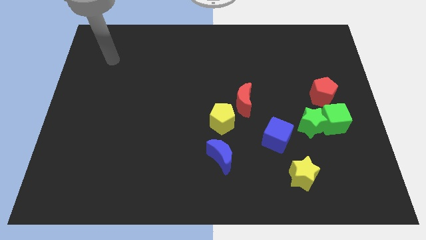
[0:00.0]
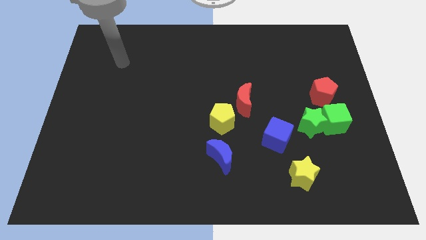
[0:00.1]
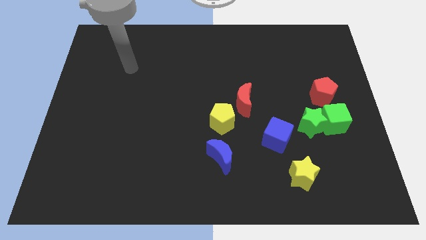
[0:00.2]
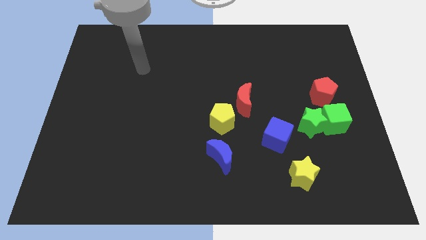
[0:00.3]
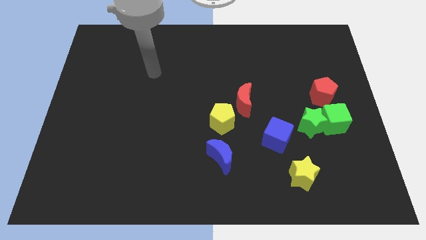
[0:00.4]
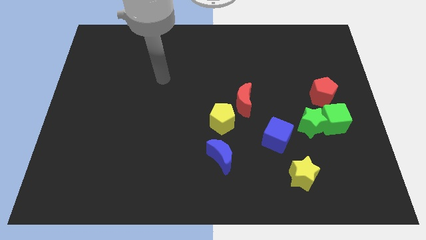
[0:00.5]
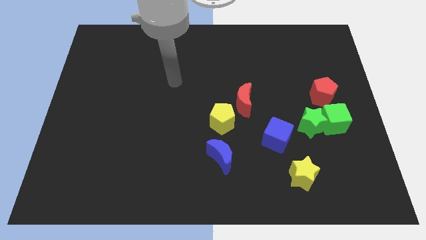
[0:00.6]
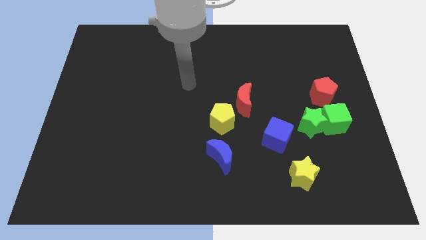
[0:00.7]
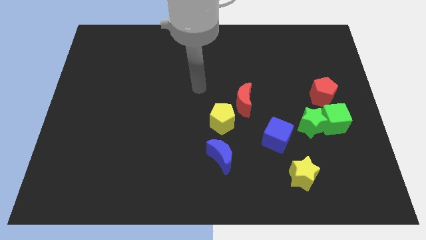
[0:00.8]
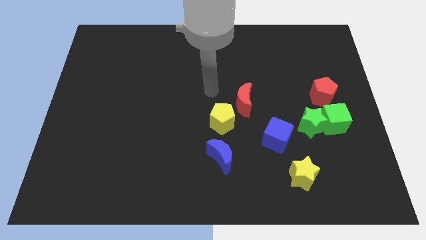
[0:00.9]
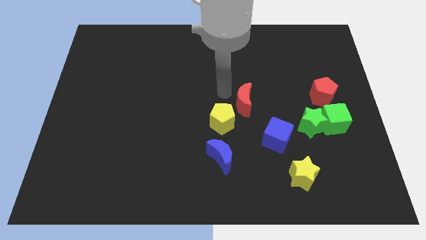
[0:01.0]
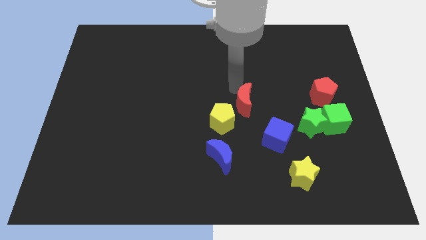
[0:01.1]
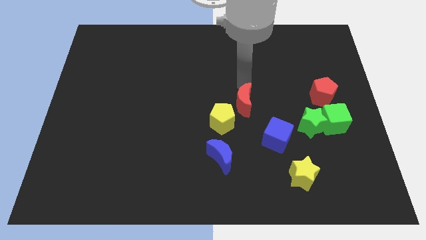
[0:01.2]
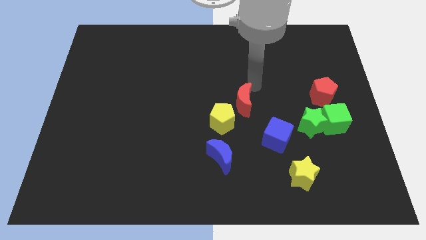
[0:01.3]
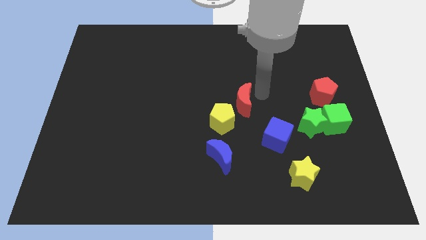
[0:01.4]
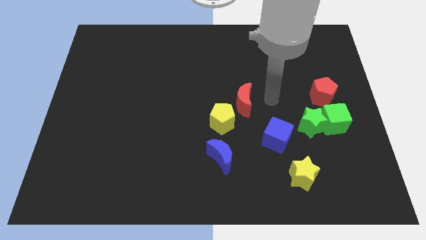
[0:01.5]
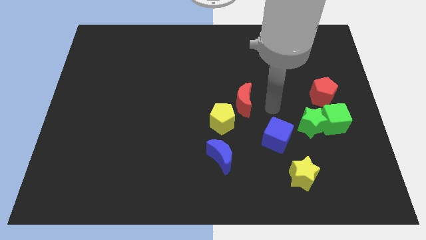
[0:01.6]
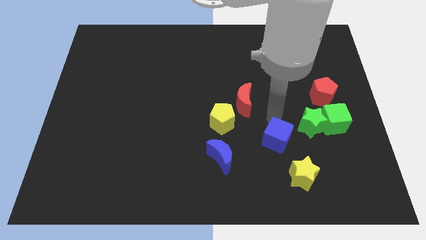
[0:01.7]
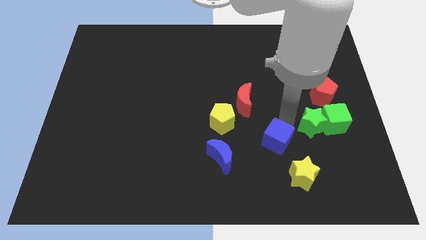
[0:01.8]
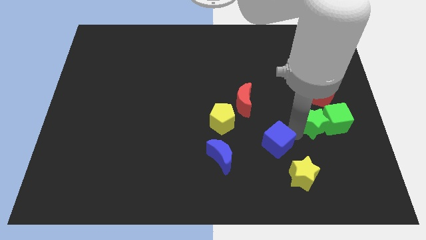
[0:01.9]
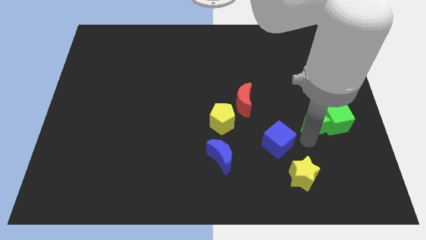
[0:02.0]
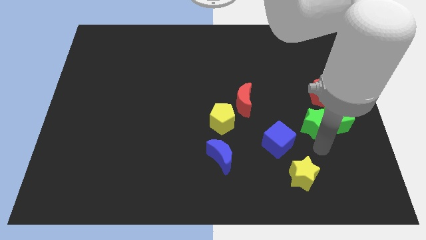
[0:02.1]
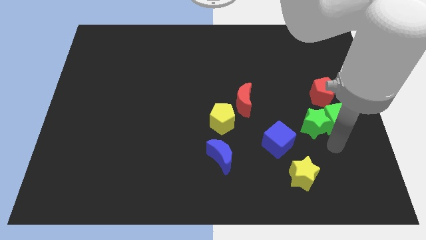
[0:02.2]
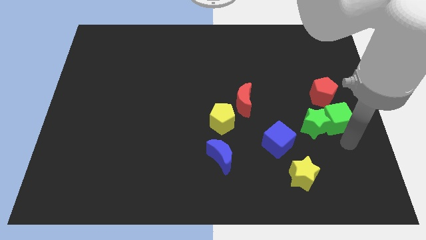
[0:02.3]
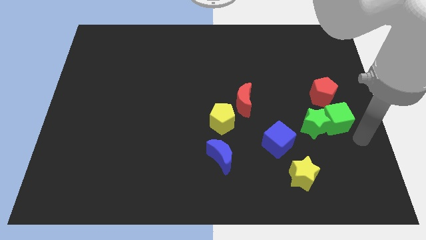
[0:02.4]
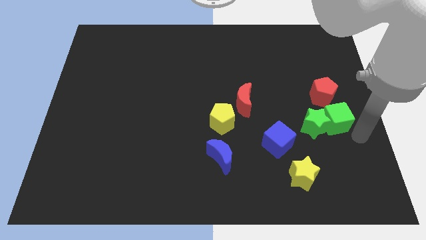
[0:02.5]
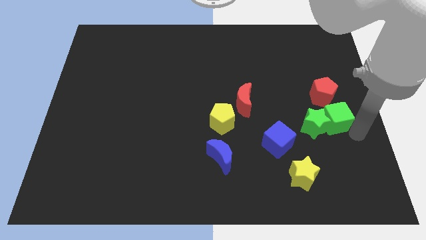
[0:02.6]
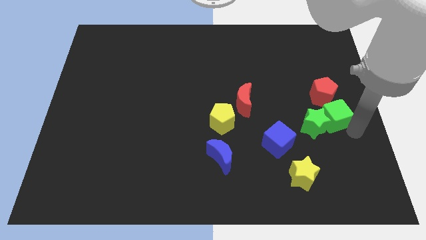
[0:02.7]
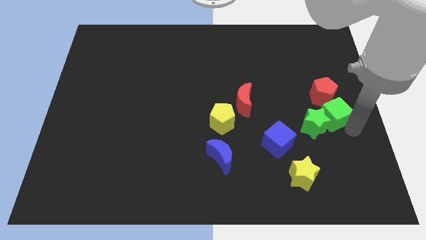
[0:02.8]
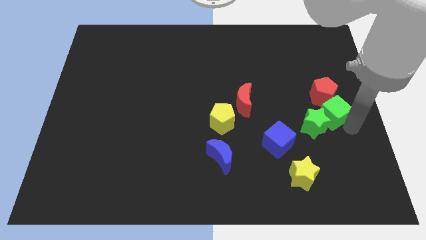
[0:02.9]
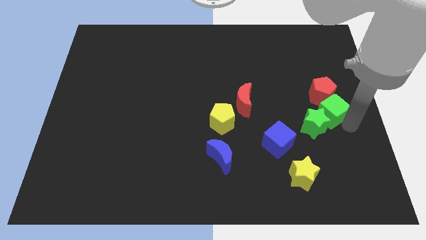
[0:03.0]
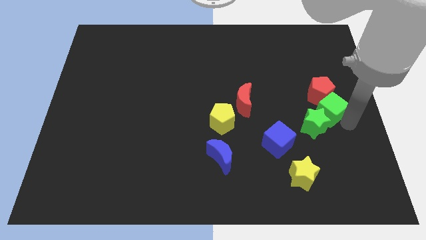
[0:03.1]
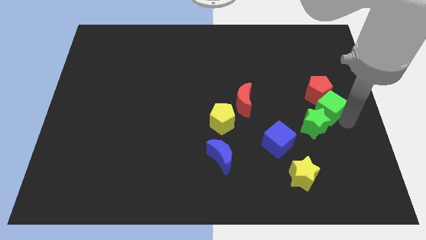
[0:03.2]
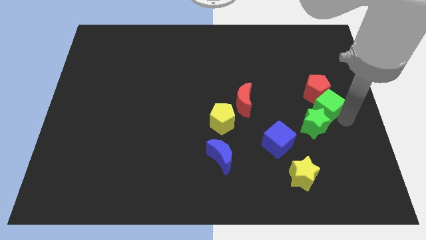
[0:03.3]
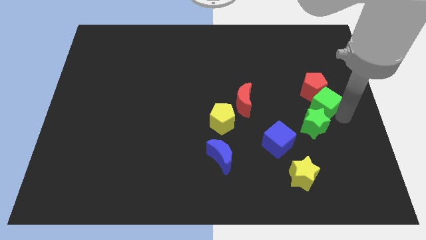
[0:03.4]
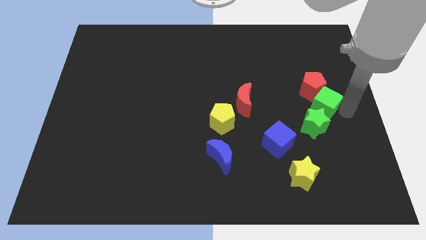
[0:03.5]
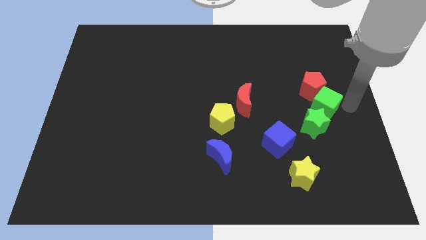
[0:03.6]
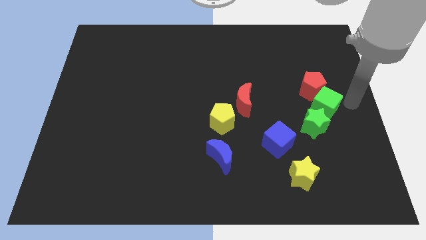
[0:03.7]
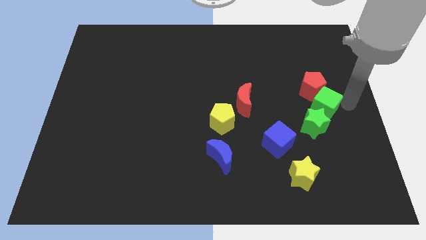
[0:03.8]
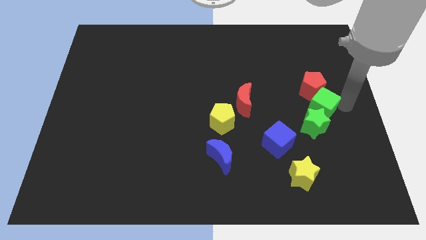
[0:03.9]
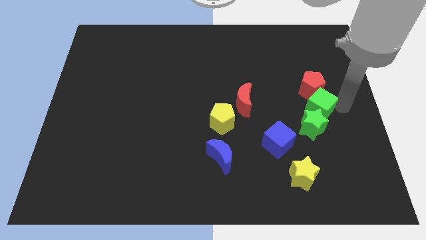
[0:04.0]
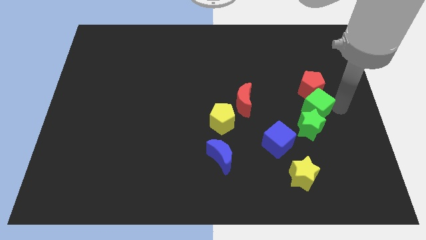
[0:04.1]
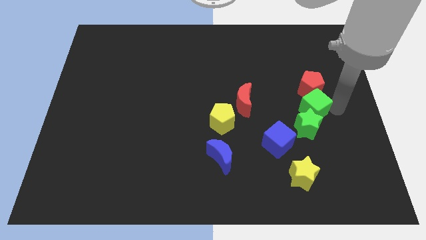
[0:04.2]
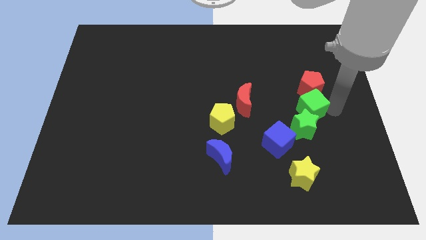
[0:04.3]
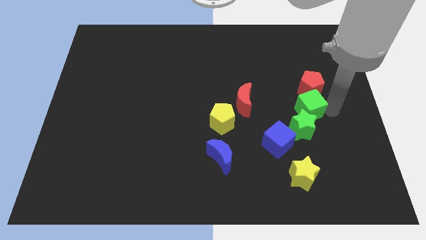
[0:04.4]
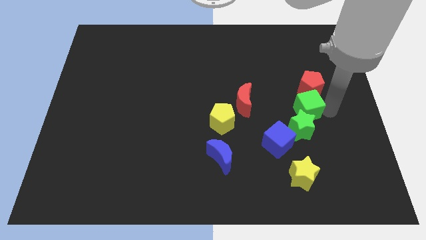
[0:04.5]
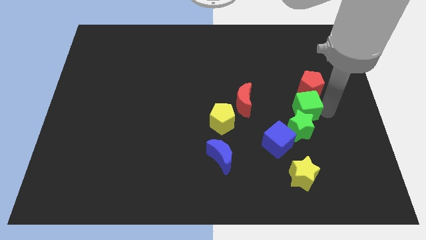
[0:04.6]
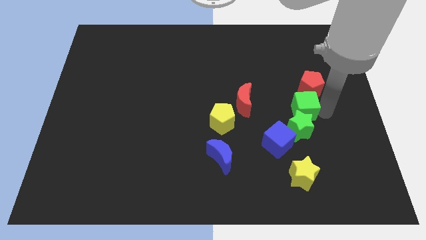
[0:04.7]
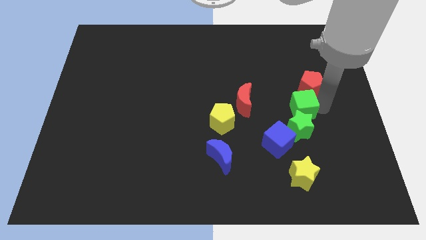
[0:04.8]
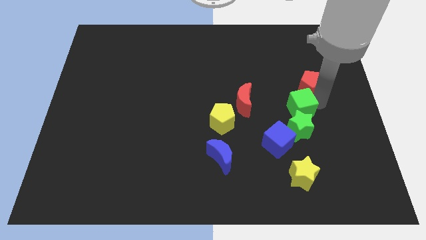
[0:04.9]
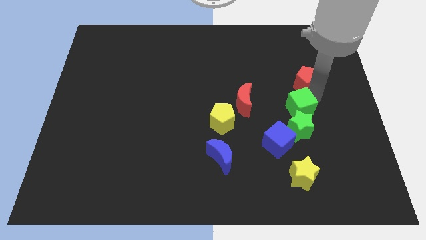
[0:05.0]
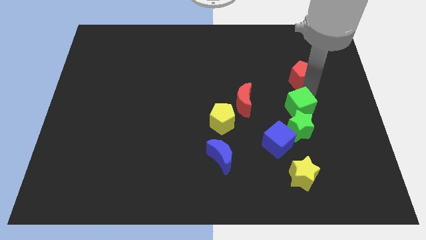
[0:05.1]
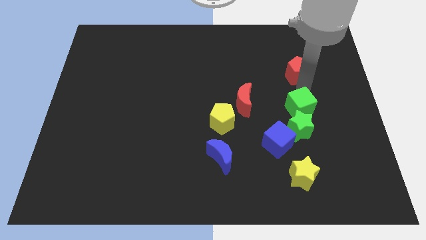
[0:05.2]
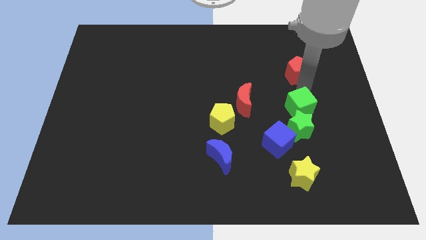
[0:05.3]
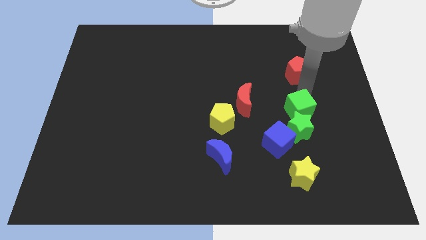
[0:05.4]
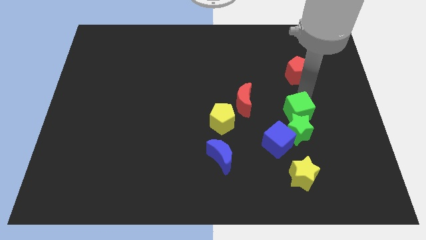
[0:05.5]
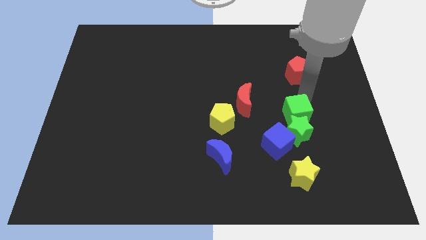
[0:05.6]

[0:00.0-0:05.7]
push the green cube to the top of the yellow star
